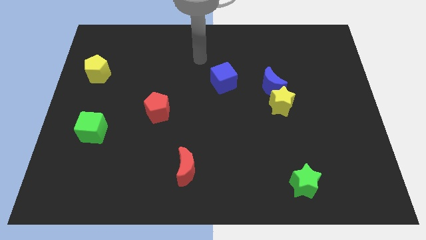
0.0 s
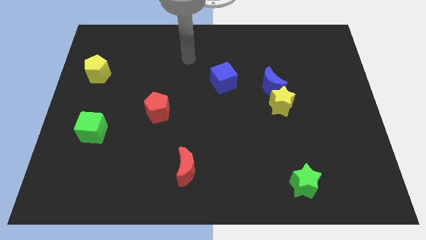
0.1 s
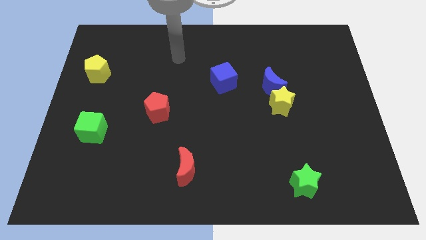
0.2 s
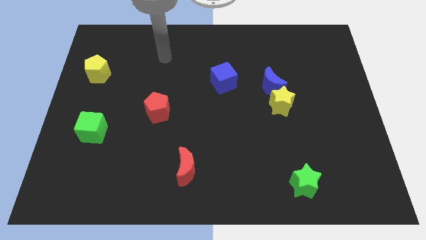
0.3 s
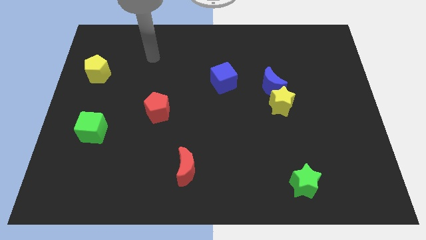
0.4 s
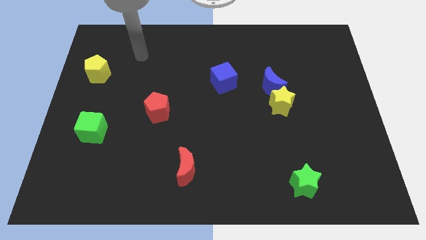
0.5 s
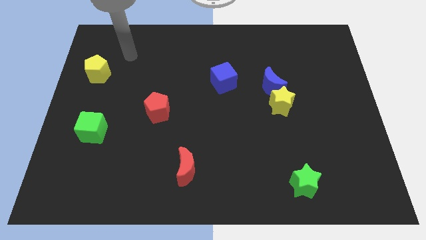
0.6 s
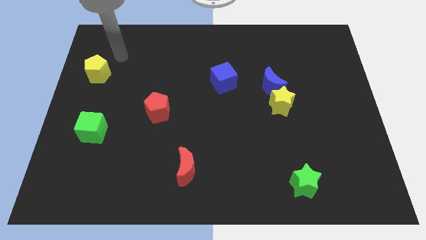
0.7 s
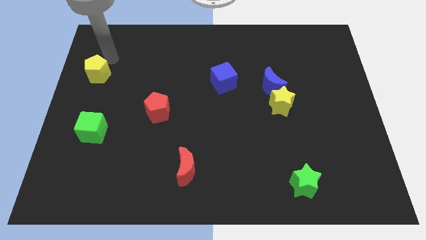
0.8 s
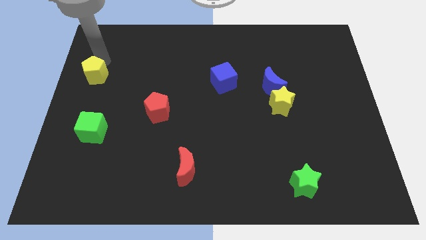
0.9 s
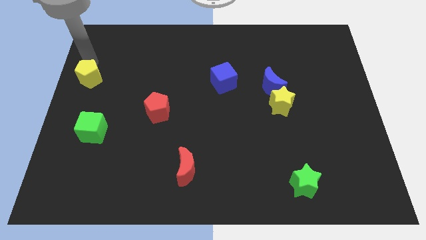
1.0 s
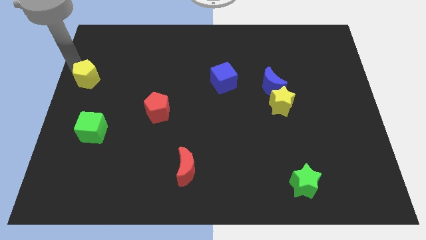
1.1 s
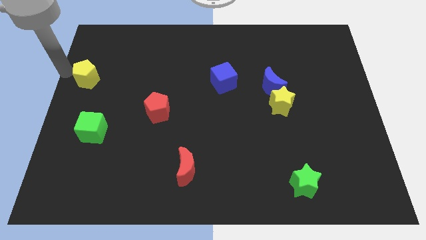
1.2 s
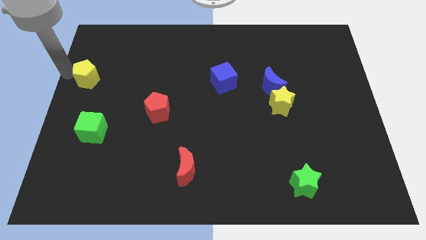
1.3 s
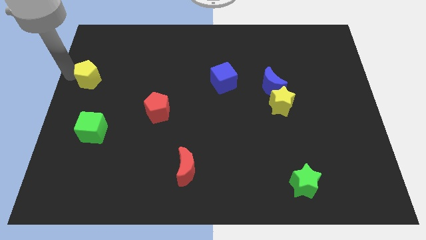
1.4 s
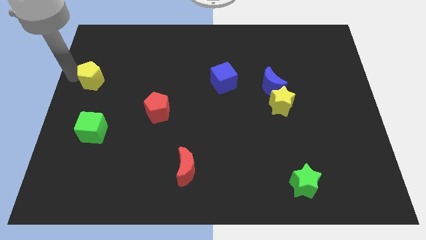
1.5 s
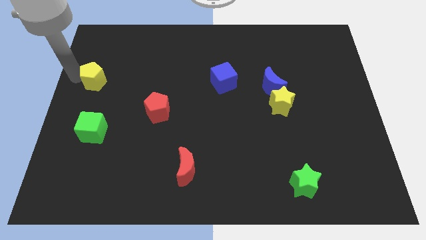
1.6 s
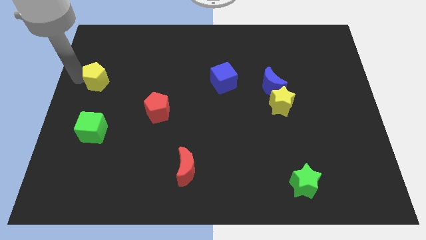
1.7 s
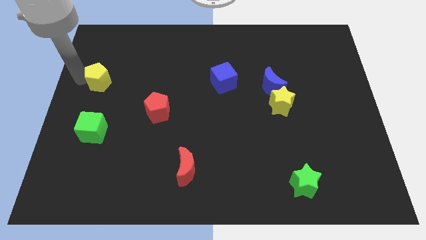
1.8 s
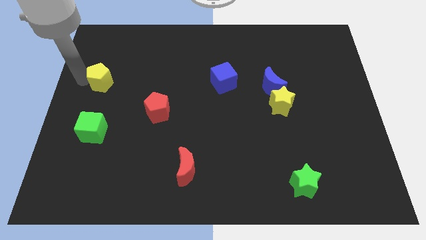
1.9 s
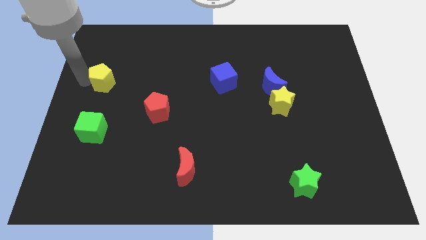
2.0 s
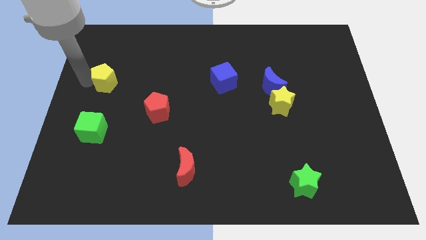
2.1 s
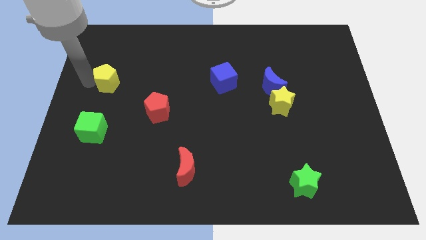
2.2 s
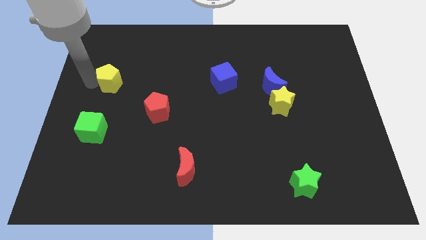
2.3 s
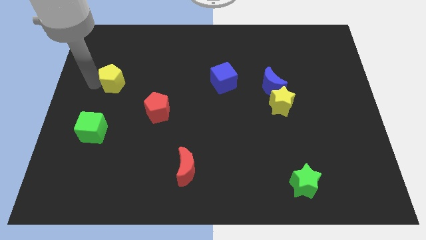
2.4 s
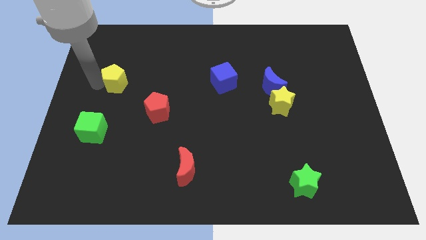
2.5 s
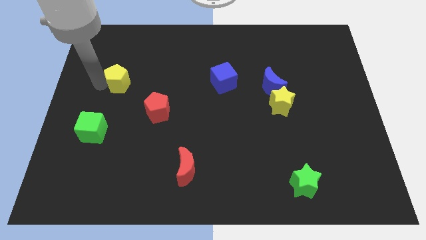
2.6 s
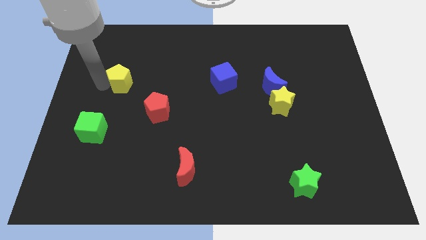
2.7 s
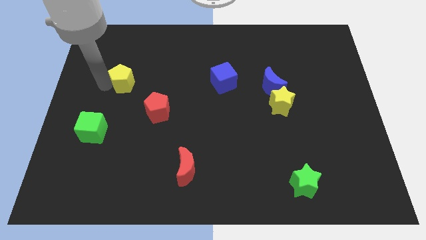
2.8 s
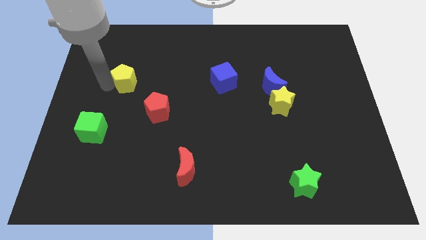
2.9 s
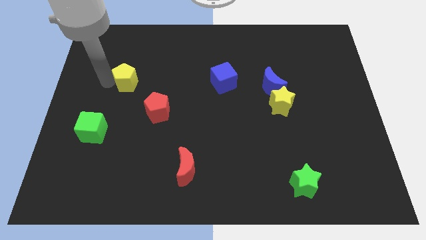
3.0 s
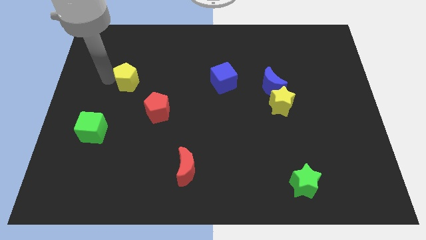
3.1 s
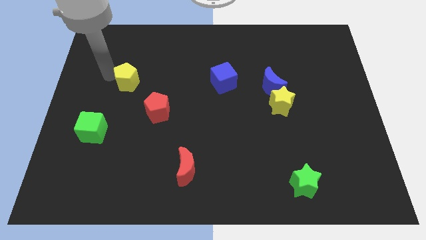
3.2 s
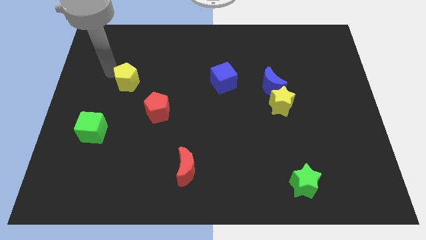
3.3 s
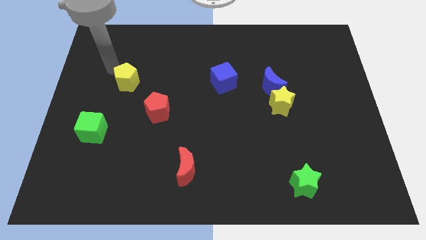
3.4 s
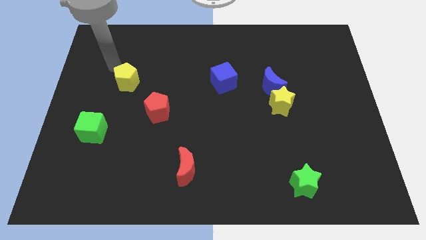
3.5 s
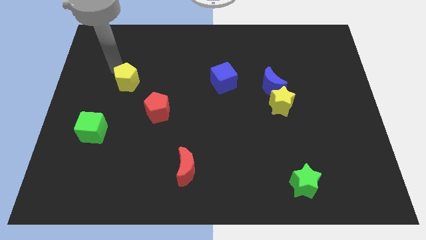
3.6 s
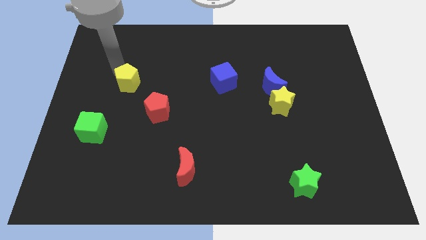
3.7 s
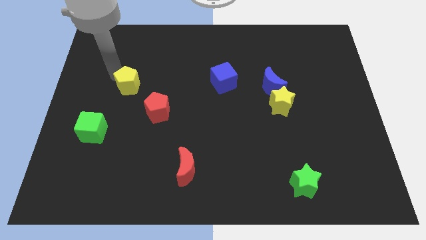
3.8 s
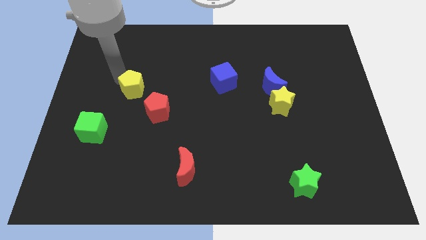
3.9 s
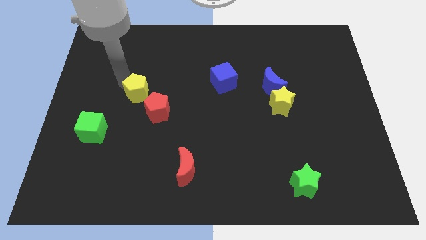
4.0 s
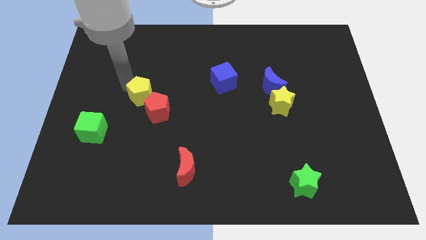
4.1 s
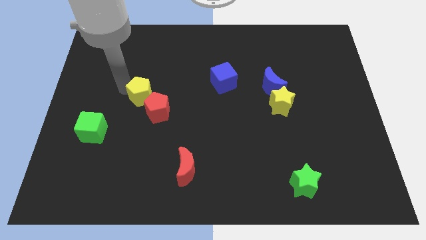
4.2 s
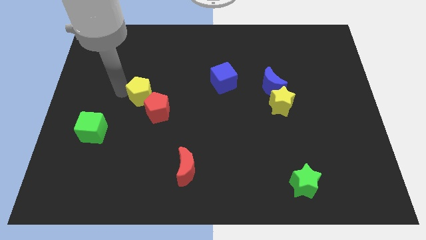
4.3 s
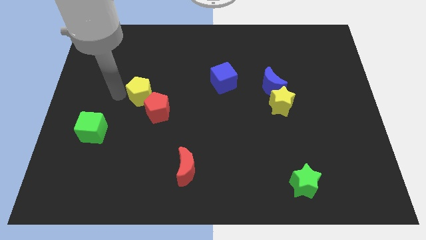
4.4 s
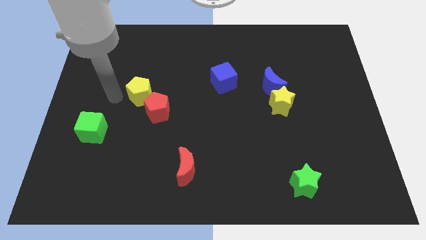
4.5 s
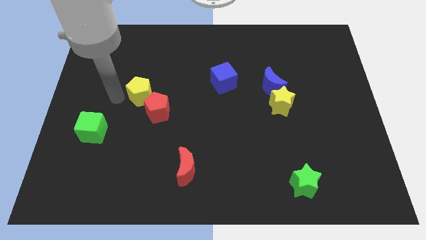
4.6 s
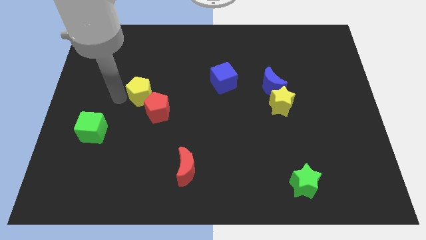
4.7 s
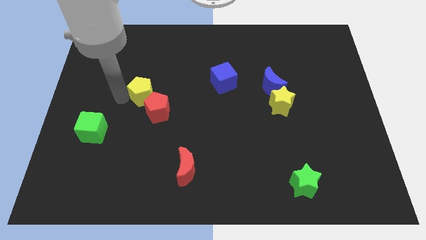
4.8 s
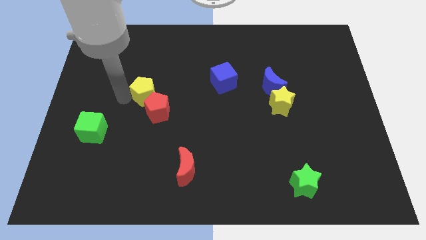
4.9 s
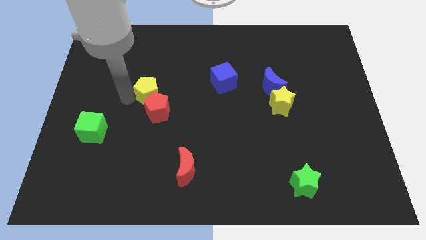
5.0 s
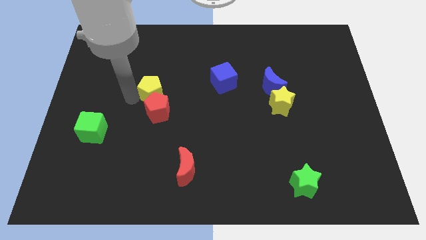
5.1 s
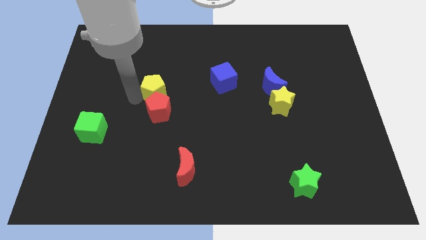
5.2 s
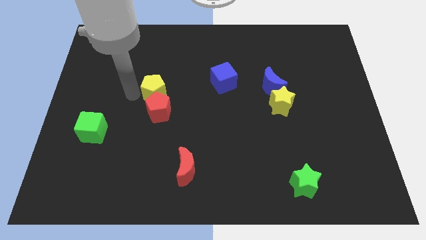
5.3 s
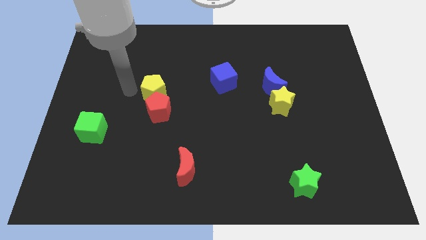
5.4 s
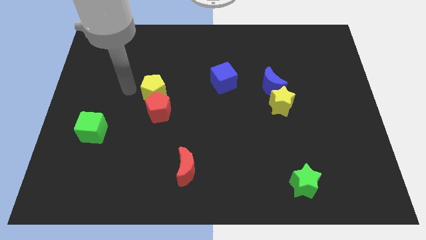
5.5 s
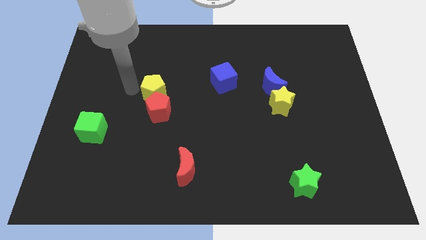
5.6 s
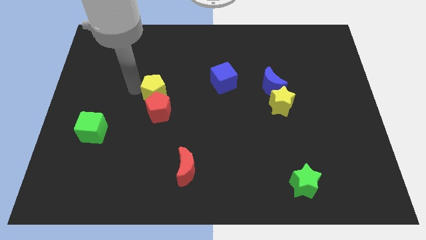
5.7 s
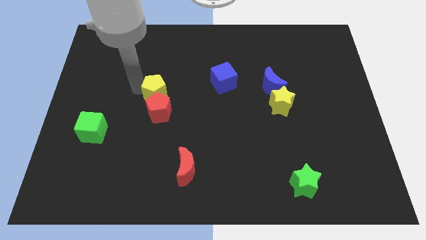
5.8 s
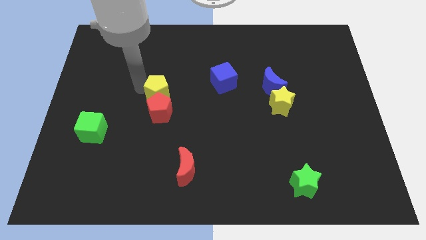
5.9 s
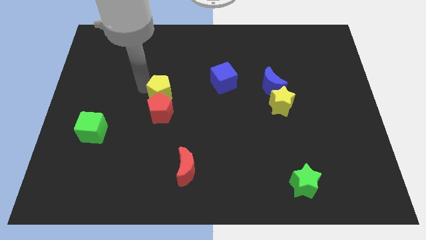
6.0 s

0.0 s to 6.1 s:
push the yellow pentagon to the top right side of the red pentagon

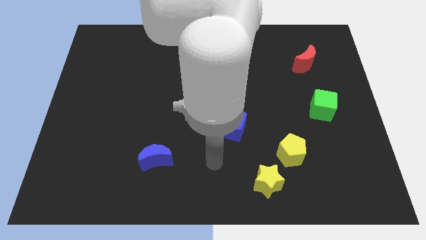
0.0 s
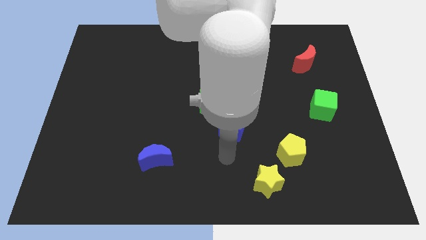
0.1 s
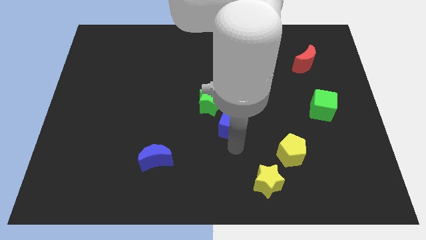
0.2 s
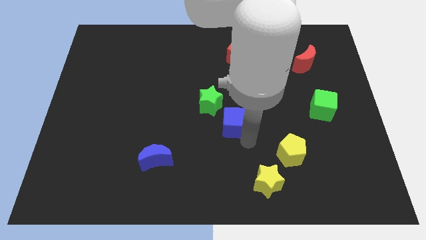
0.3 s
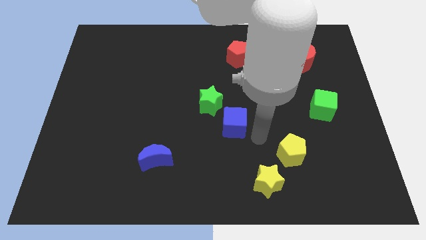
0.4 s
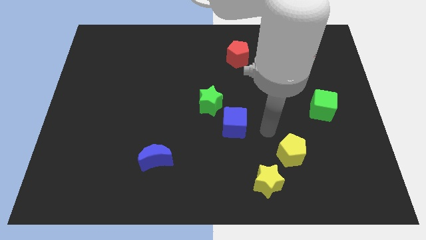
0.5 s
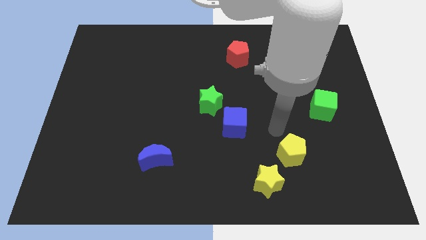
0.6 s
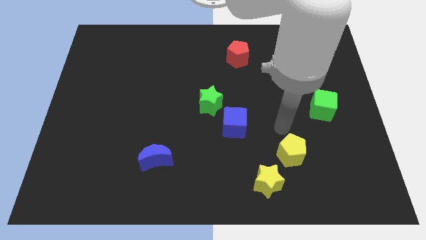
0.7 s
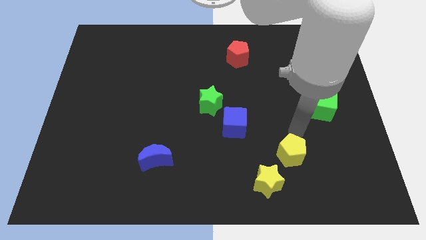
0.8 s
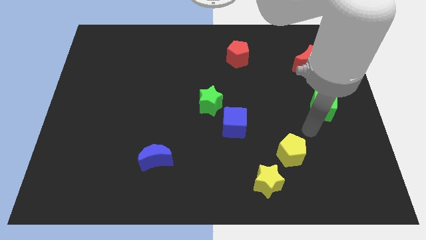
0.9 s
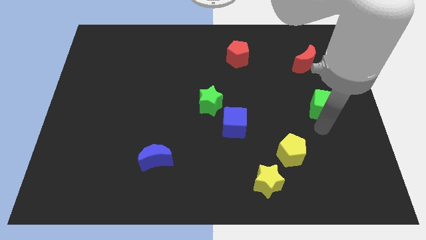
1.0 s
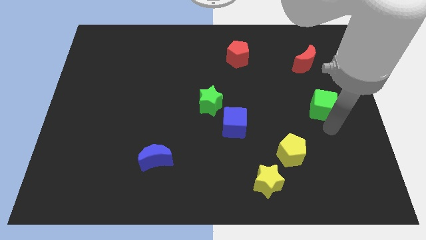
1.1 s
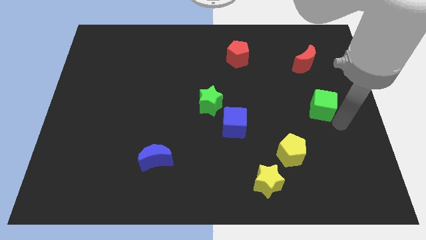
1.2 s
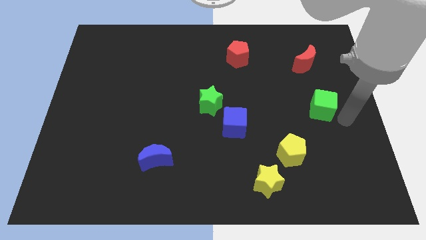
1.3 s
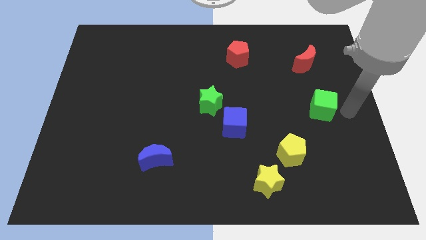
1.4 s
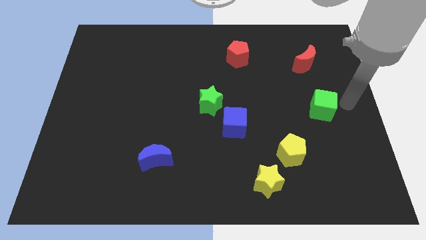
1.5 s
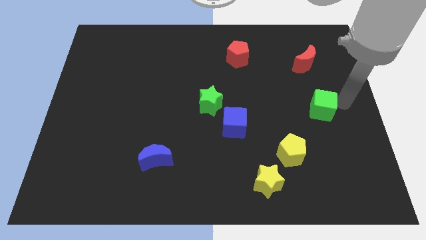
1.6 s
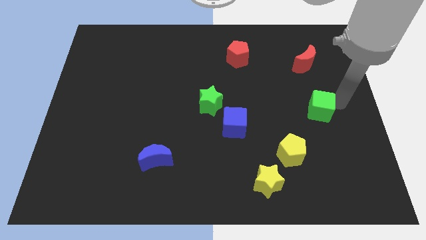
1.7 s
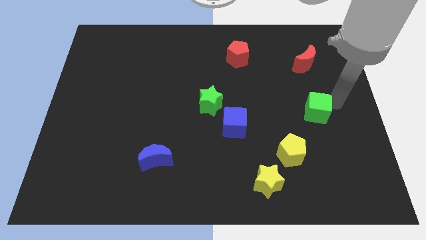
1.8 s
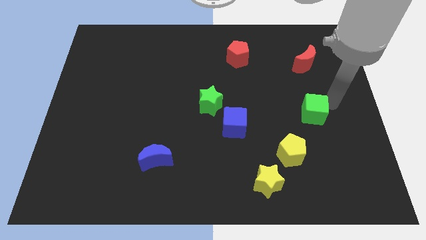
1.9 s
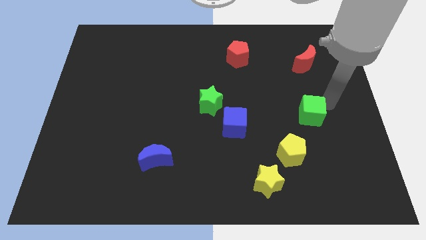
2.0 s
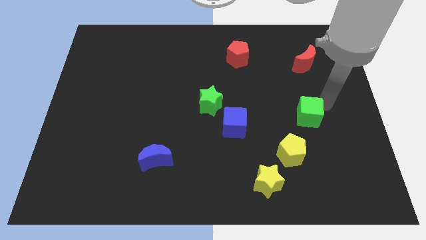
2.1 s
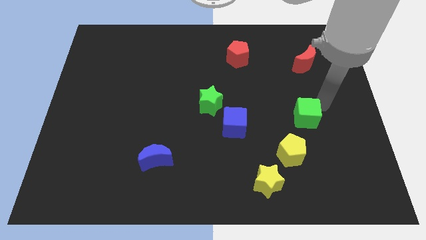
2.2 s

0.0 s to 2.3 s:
push the green cube to the top of the yellow pentagon
